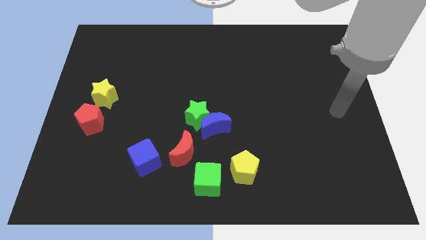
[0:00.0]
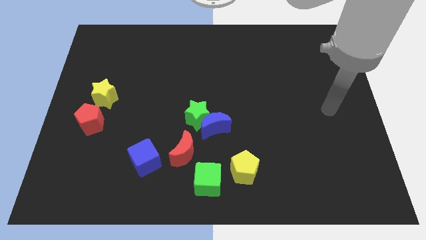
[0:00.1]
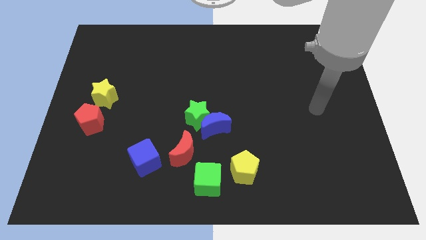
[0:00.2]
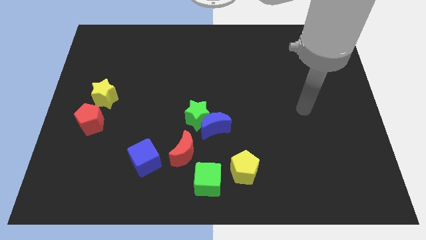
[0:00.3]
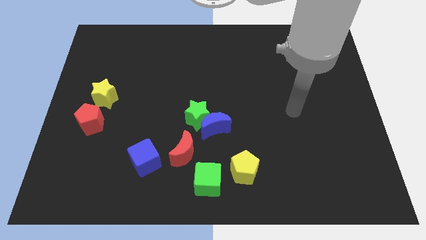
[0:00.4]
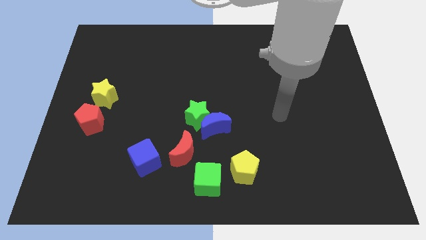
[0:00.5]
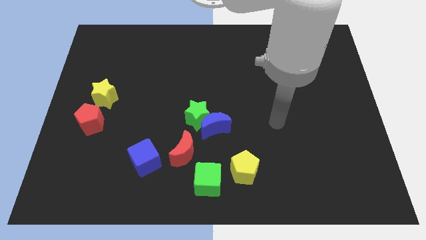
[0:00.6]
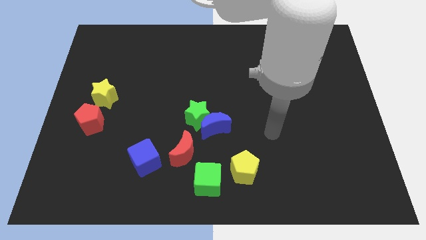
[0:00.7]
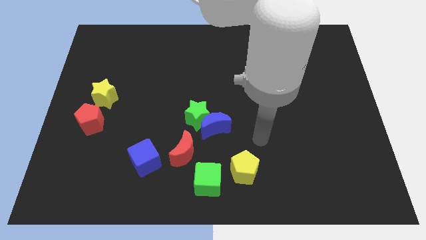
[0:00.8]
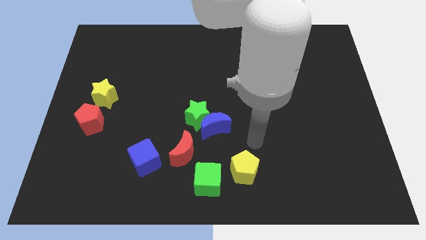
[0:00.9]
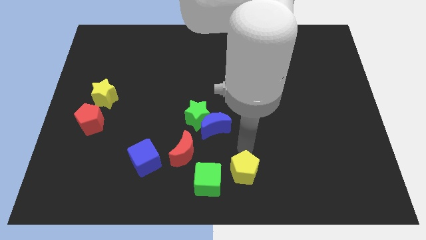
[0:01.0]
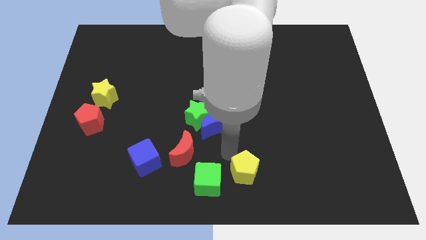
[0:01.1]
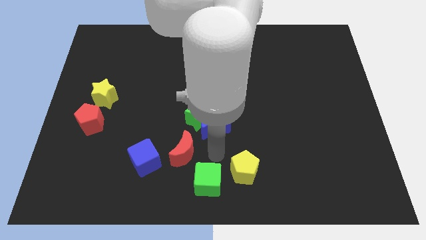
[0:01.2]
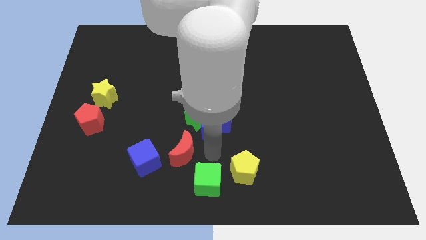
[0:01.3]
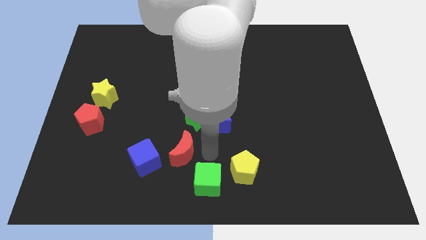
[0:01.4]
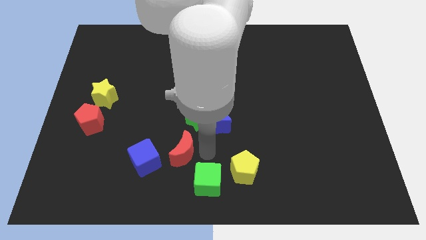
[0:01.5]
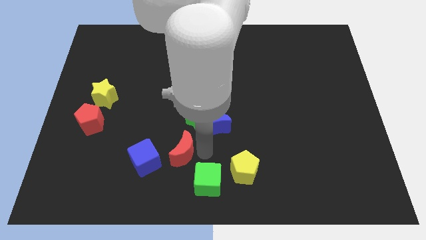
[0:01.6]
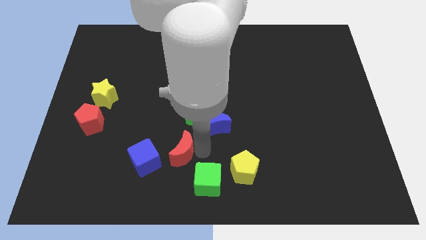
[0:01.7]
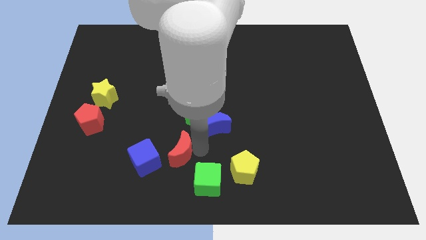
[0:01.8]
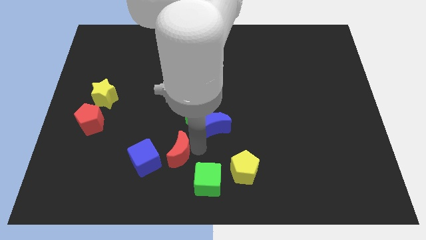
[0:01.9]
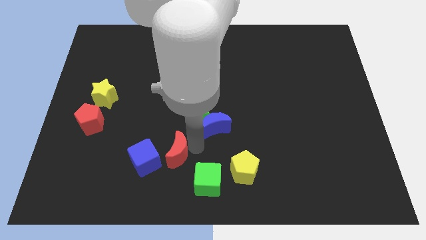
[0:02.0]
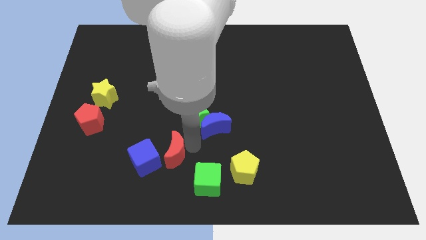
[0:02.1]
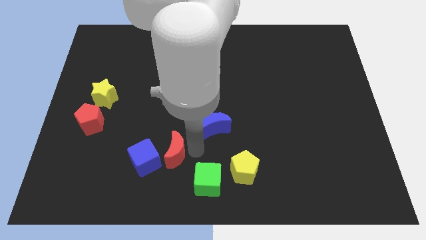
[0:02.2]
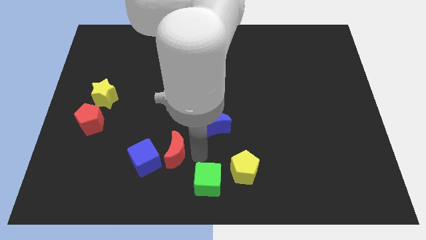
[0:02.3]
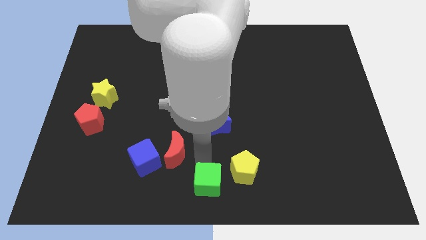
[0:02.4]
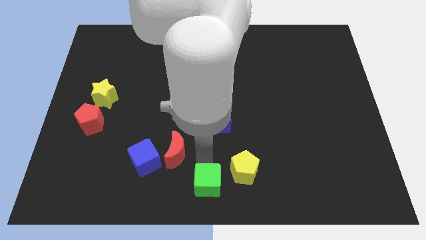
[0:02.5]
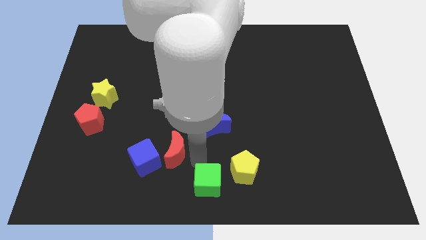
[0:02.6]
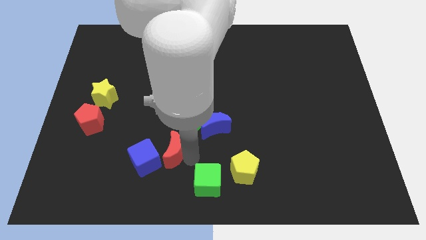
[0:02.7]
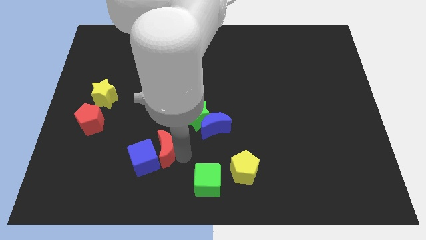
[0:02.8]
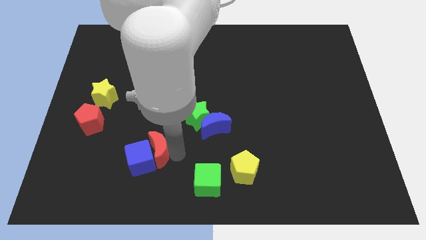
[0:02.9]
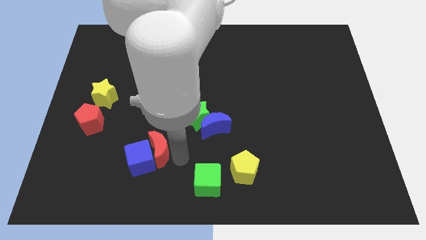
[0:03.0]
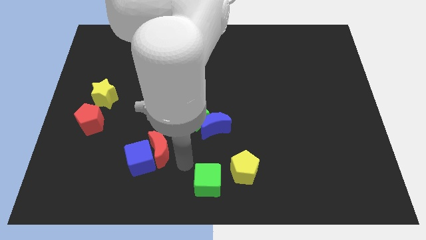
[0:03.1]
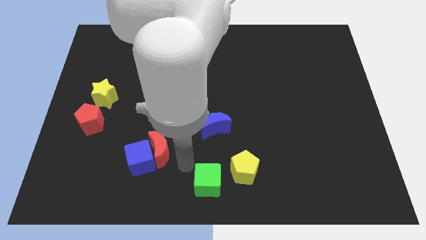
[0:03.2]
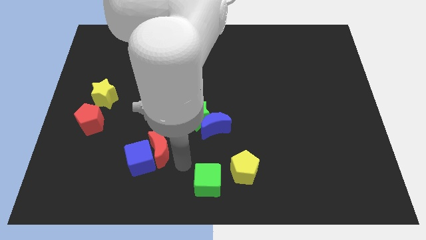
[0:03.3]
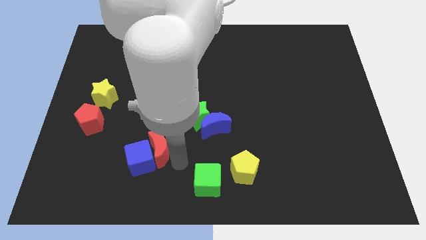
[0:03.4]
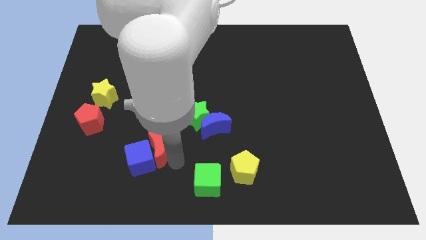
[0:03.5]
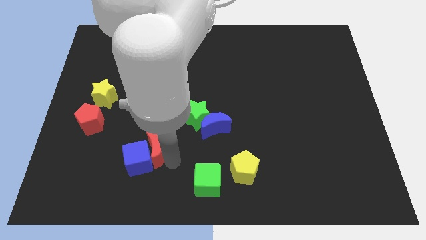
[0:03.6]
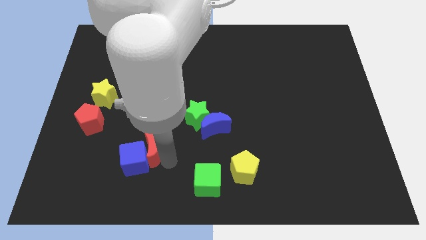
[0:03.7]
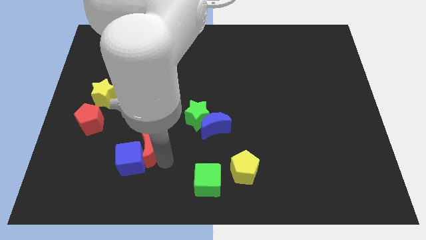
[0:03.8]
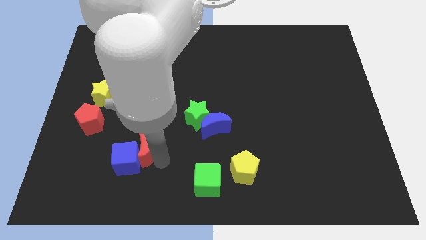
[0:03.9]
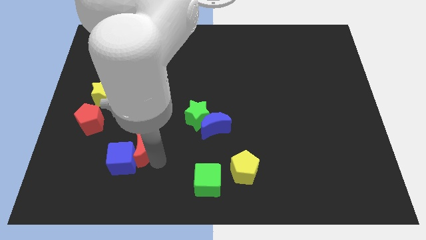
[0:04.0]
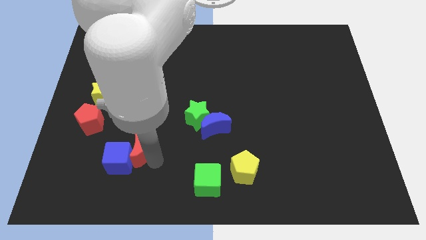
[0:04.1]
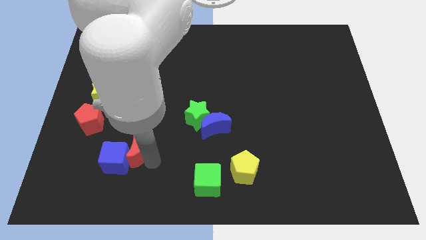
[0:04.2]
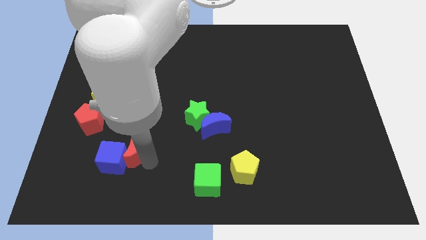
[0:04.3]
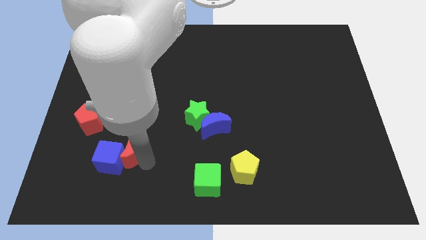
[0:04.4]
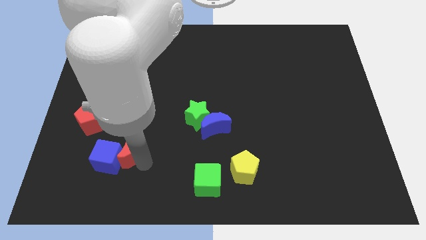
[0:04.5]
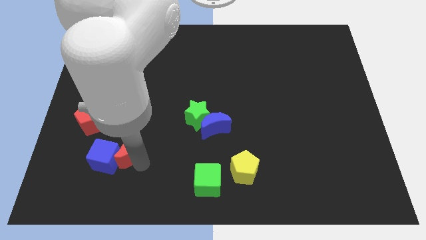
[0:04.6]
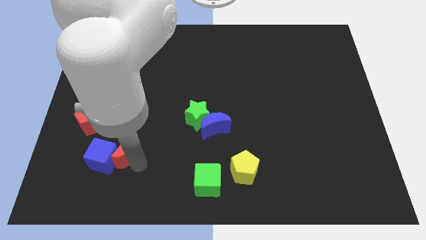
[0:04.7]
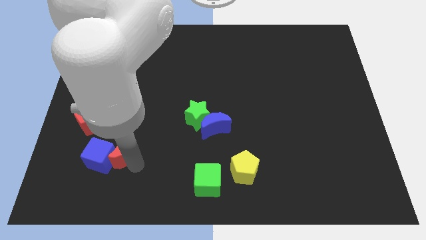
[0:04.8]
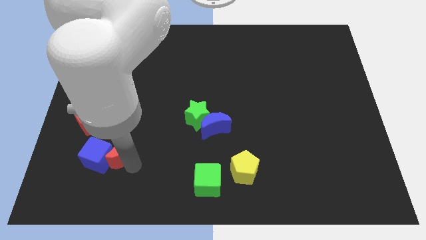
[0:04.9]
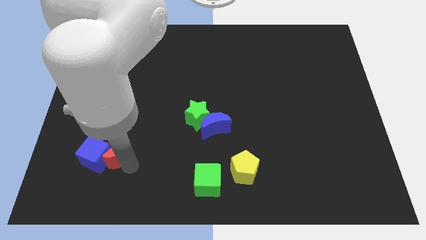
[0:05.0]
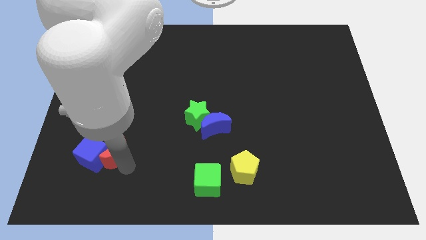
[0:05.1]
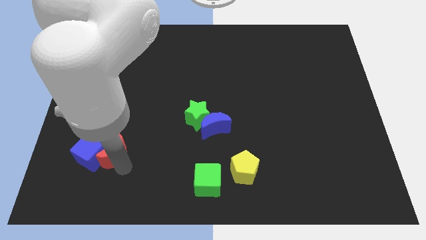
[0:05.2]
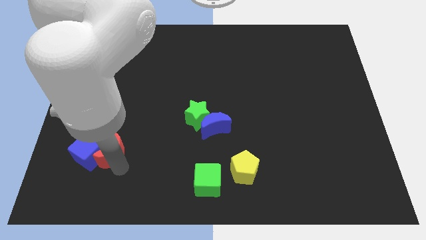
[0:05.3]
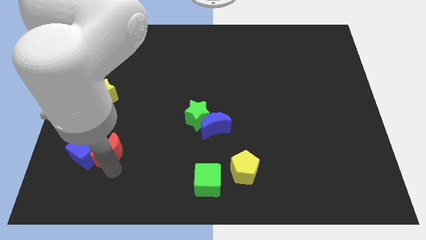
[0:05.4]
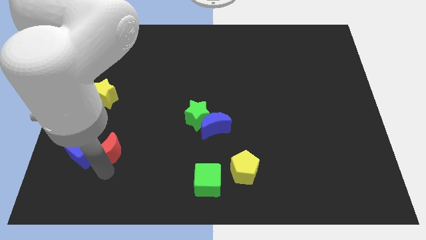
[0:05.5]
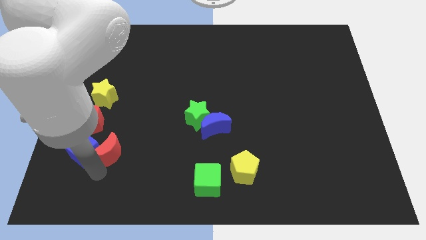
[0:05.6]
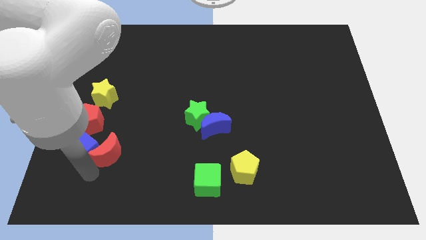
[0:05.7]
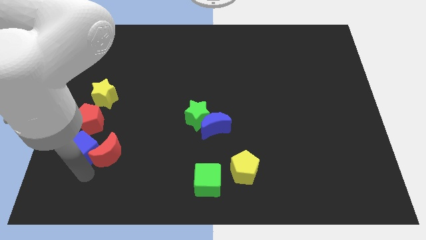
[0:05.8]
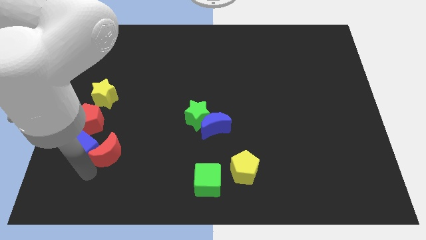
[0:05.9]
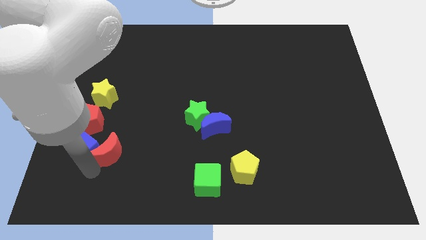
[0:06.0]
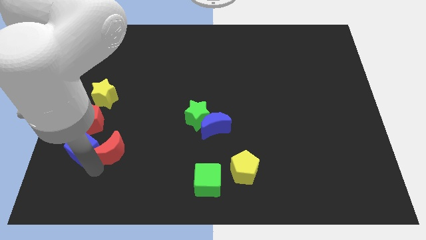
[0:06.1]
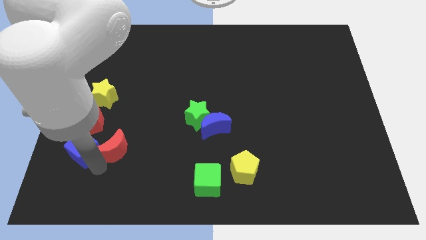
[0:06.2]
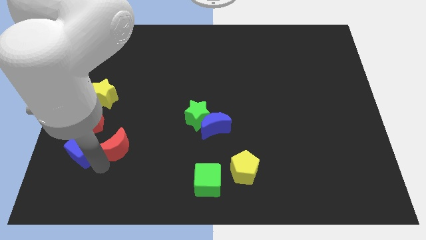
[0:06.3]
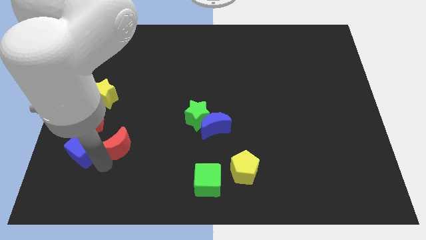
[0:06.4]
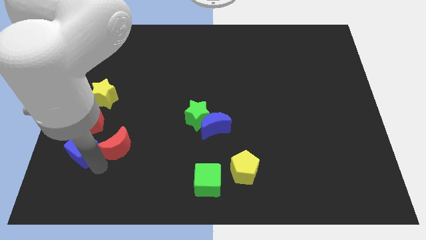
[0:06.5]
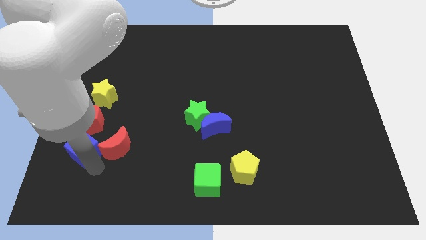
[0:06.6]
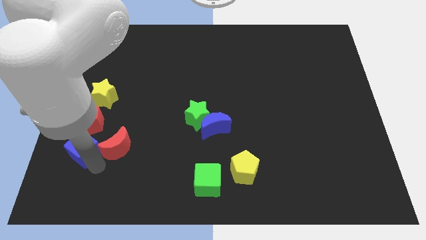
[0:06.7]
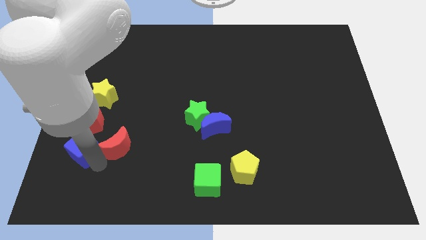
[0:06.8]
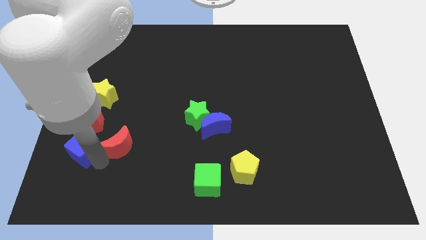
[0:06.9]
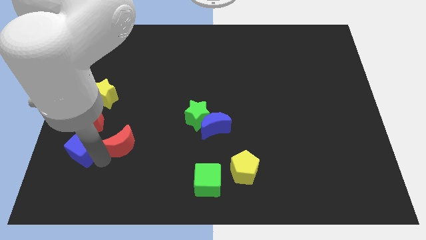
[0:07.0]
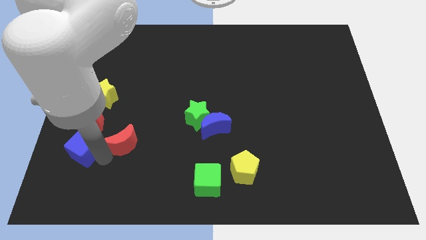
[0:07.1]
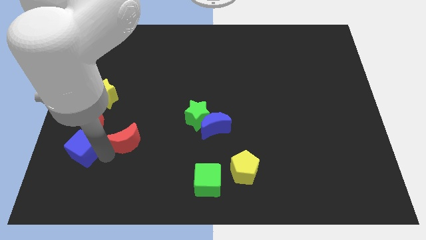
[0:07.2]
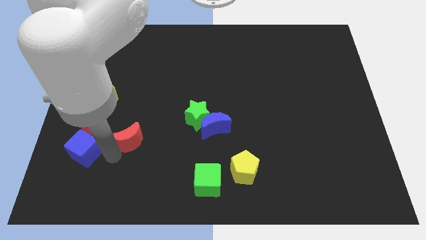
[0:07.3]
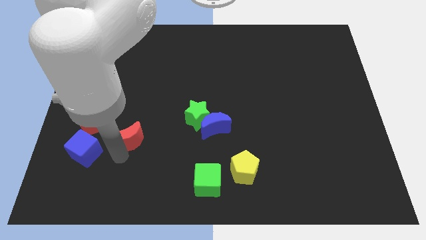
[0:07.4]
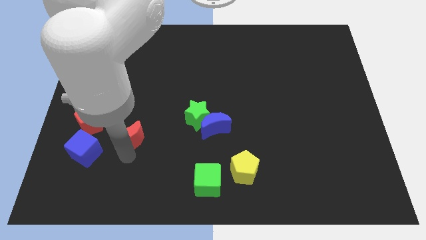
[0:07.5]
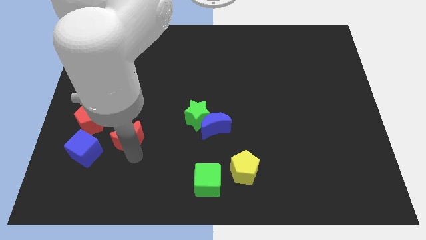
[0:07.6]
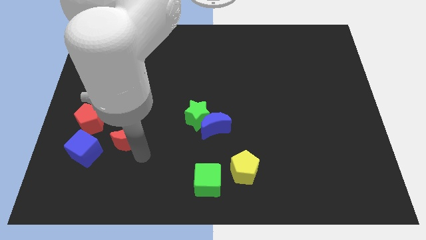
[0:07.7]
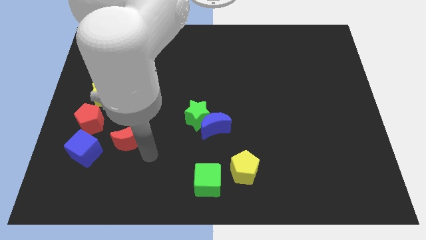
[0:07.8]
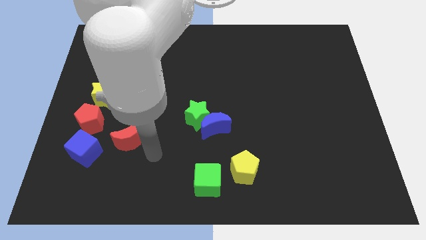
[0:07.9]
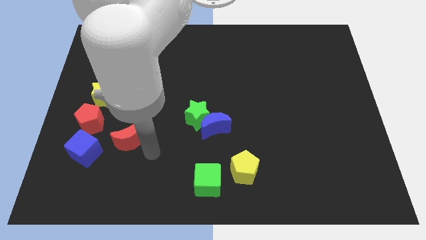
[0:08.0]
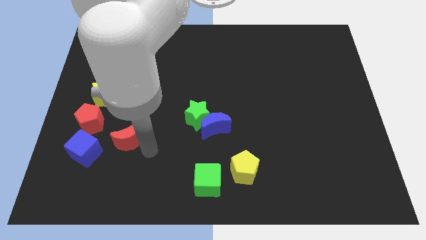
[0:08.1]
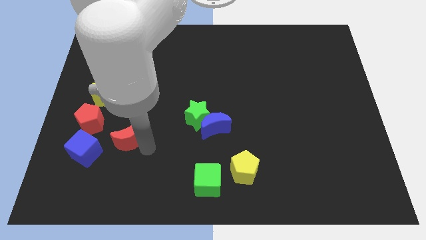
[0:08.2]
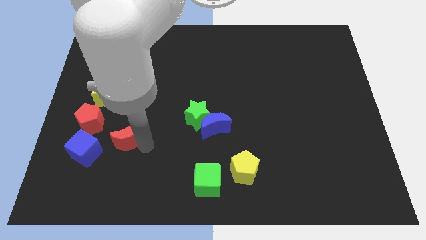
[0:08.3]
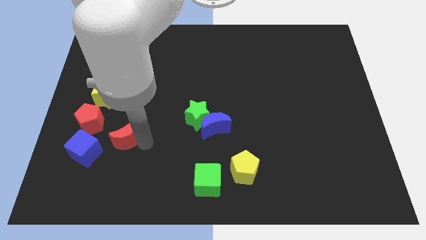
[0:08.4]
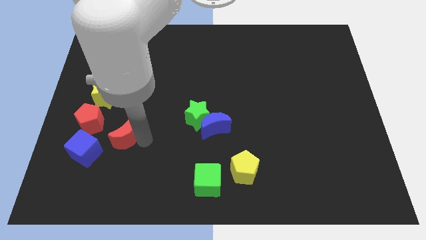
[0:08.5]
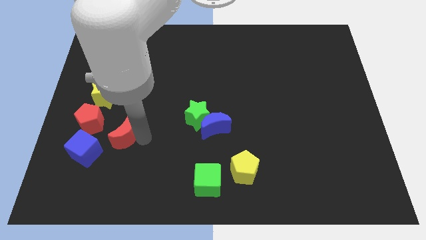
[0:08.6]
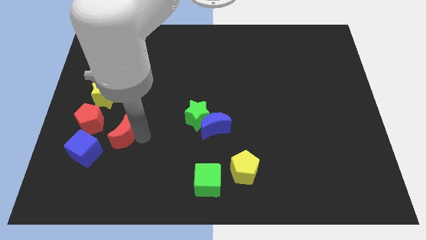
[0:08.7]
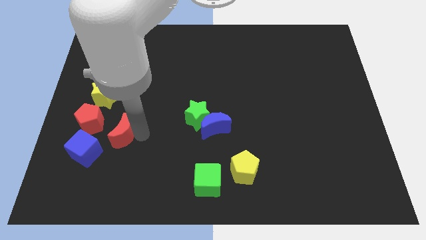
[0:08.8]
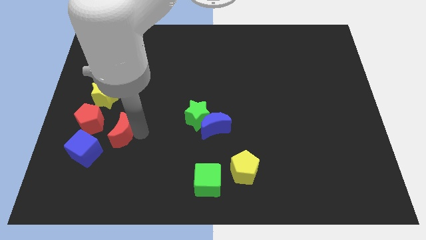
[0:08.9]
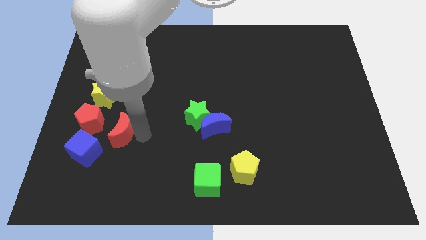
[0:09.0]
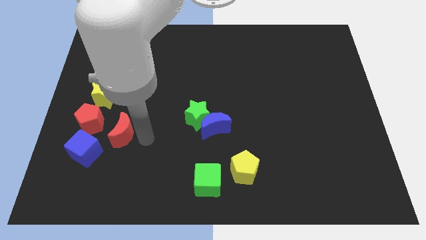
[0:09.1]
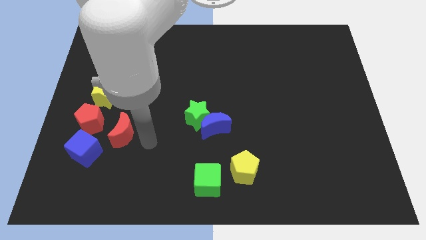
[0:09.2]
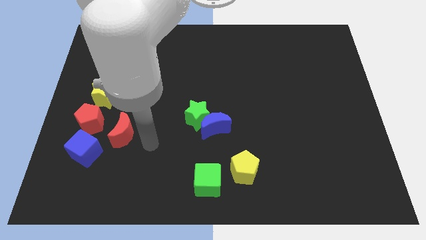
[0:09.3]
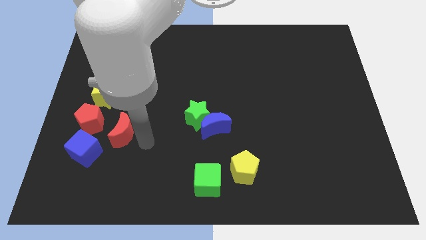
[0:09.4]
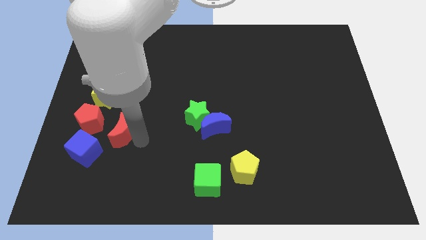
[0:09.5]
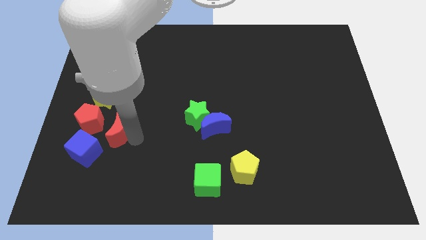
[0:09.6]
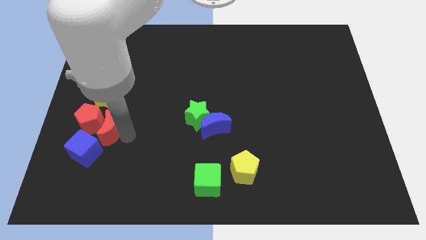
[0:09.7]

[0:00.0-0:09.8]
move the red moon towards the red pentagon
